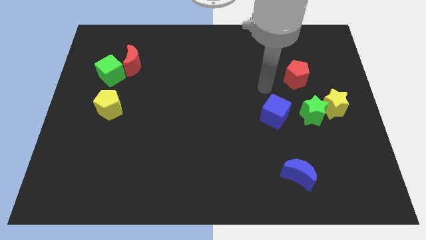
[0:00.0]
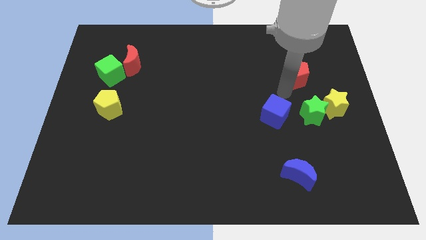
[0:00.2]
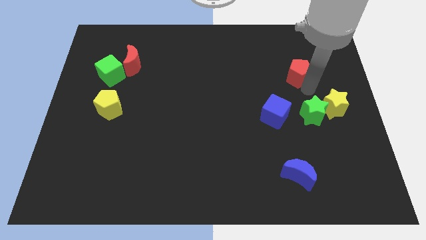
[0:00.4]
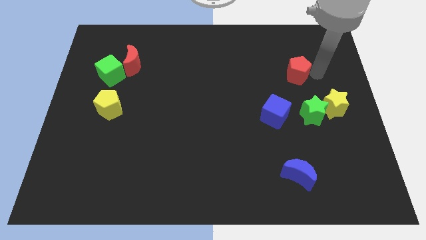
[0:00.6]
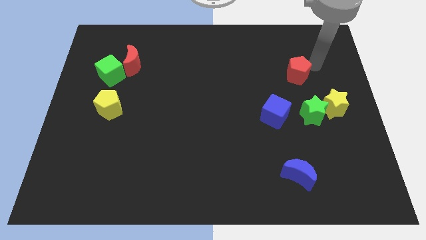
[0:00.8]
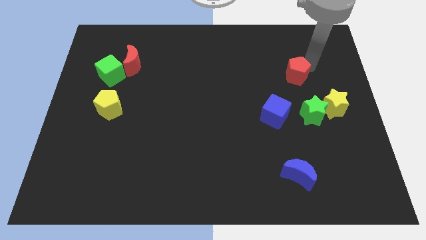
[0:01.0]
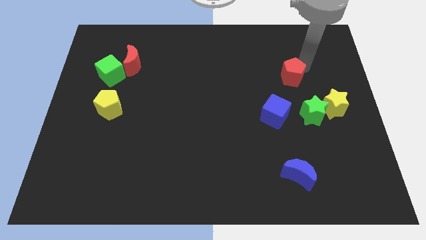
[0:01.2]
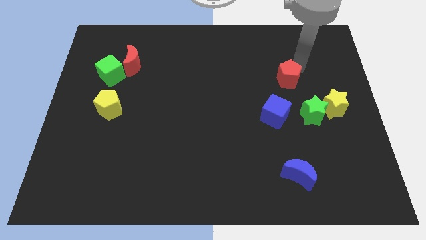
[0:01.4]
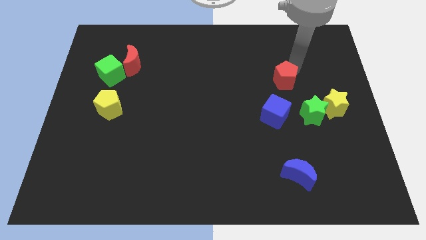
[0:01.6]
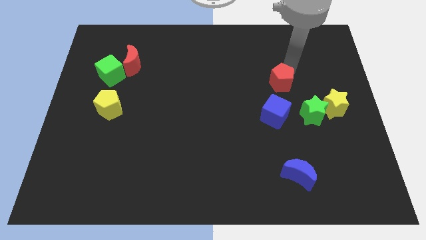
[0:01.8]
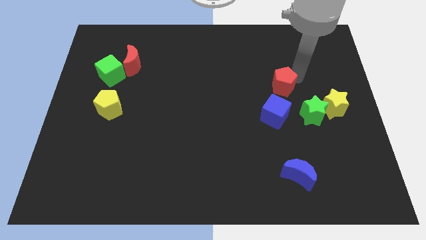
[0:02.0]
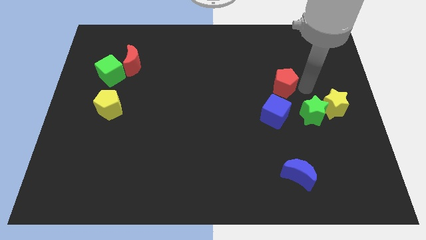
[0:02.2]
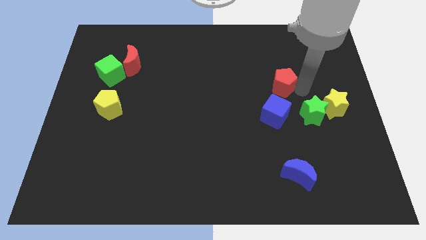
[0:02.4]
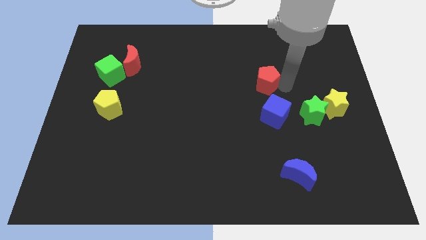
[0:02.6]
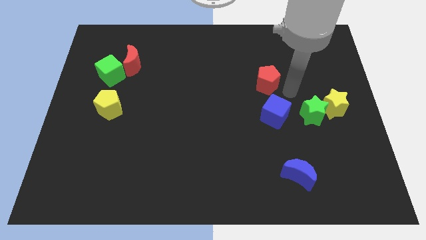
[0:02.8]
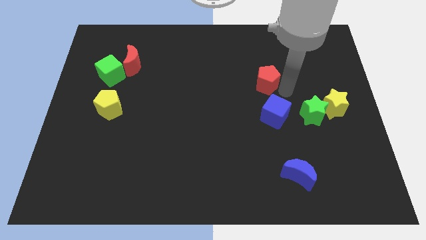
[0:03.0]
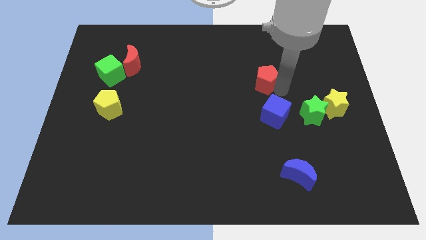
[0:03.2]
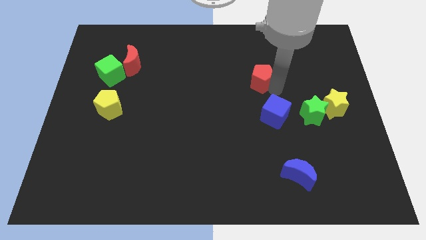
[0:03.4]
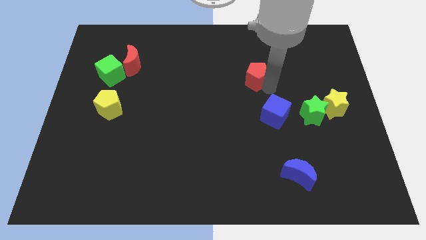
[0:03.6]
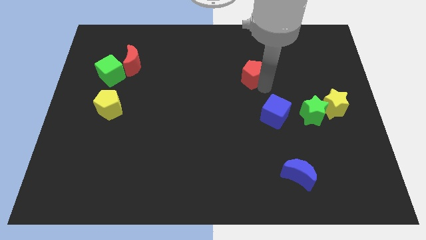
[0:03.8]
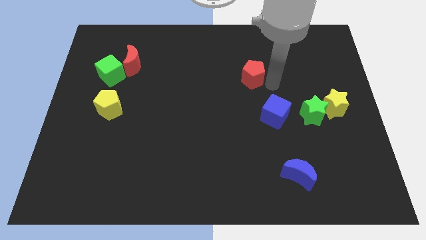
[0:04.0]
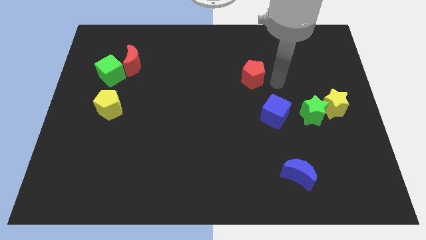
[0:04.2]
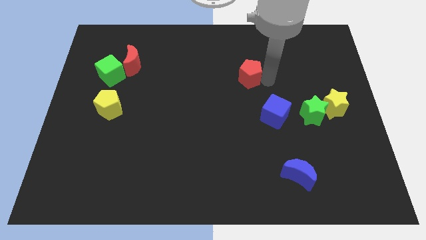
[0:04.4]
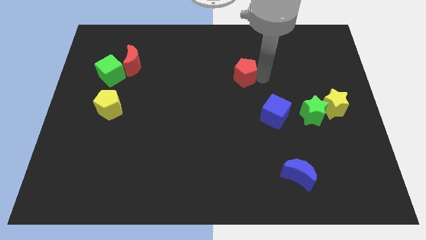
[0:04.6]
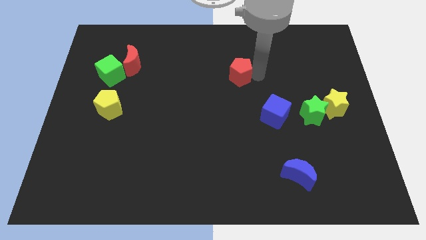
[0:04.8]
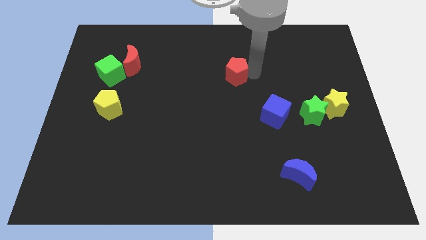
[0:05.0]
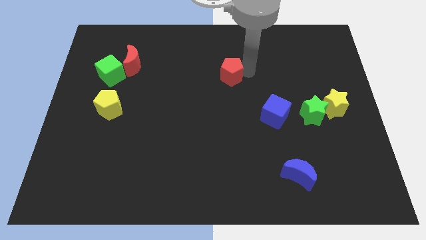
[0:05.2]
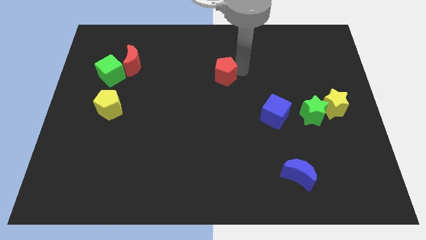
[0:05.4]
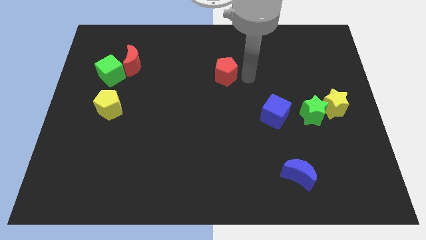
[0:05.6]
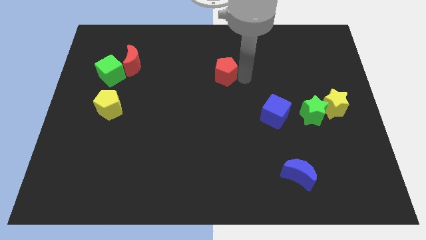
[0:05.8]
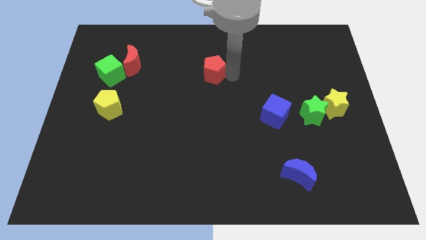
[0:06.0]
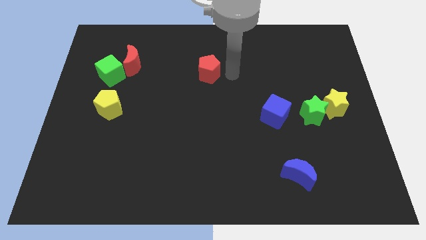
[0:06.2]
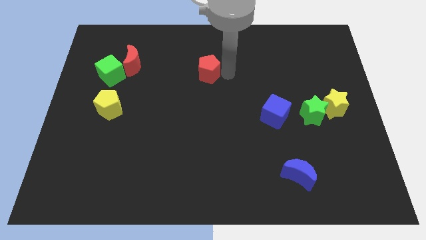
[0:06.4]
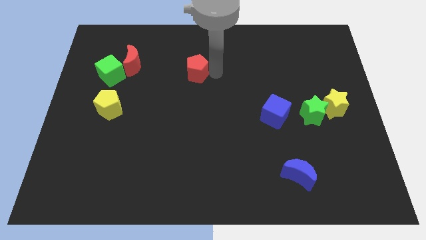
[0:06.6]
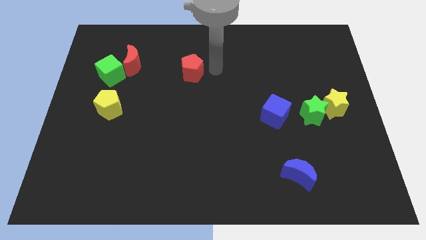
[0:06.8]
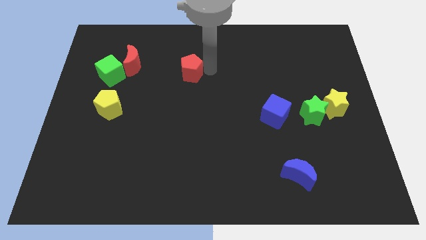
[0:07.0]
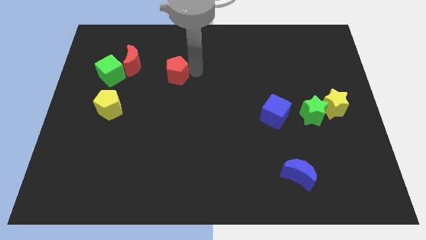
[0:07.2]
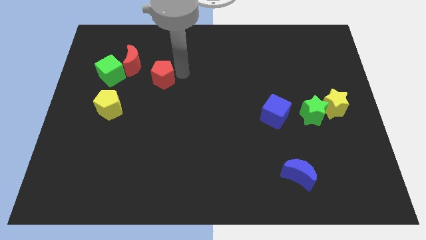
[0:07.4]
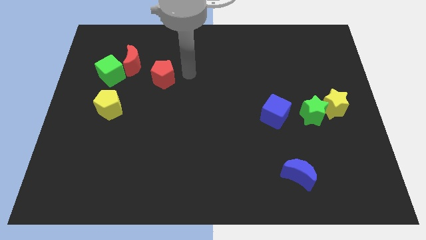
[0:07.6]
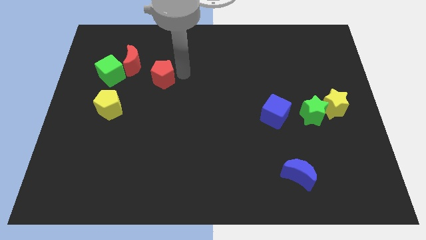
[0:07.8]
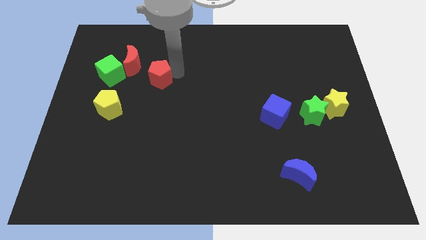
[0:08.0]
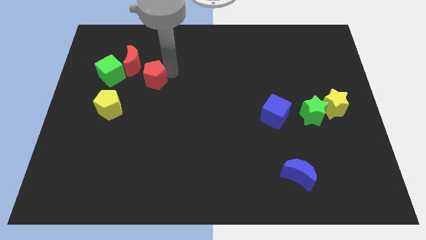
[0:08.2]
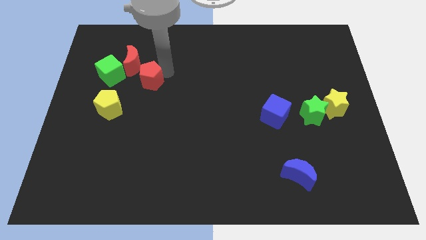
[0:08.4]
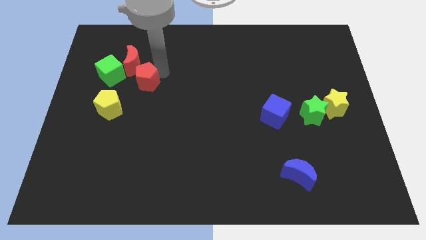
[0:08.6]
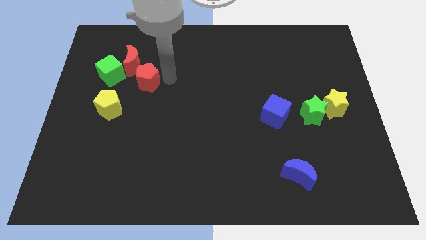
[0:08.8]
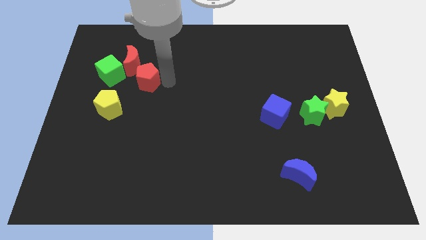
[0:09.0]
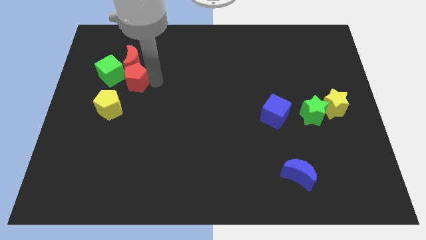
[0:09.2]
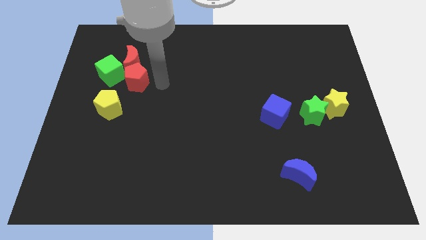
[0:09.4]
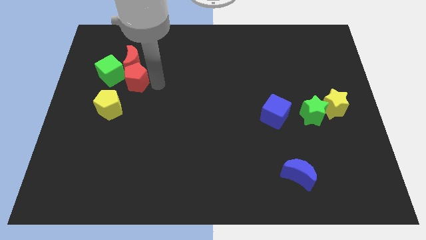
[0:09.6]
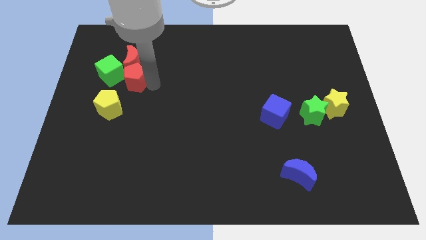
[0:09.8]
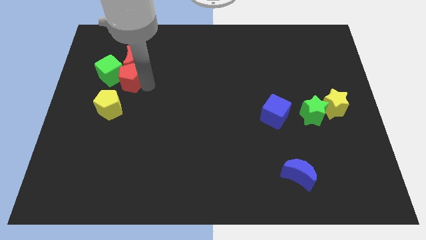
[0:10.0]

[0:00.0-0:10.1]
put the red pentagon to the green cube

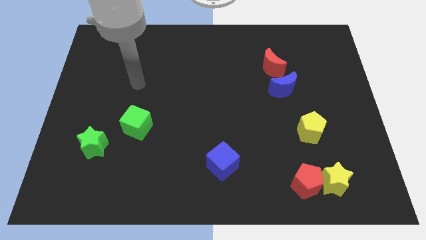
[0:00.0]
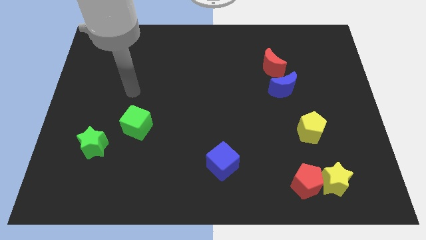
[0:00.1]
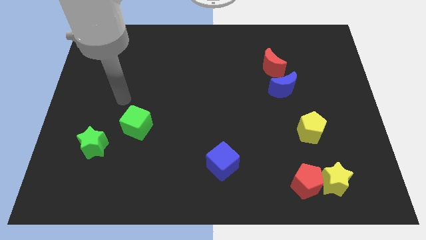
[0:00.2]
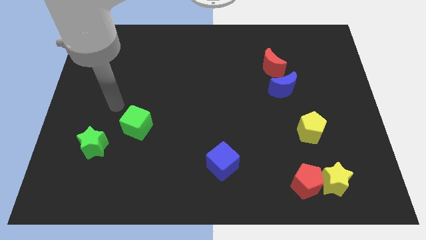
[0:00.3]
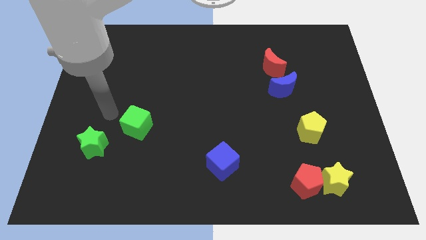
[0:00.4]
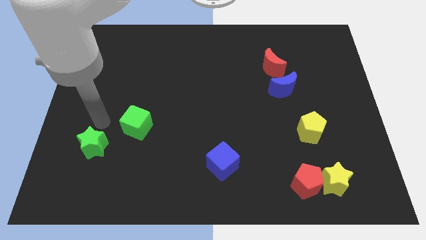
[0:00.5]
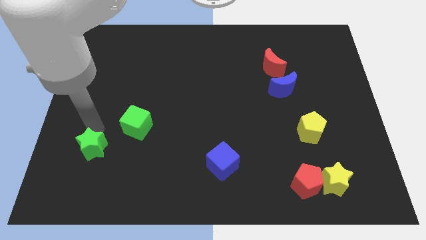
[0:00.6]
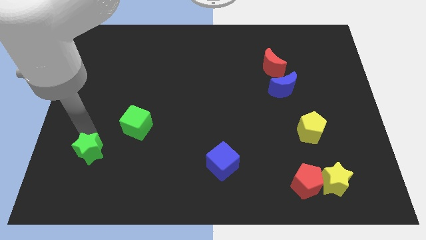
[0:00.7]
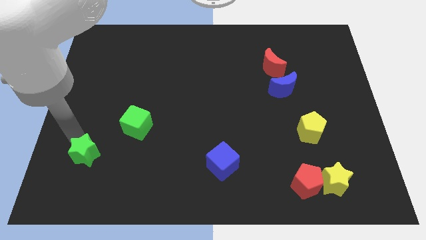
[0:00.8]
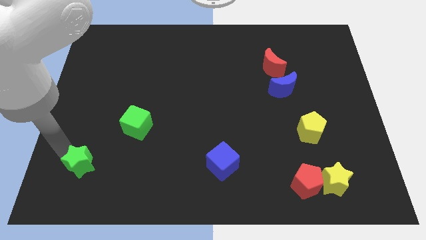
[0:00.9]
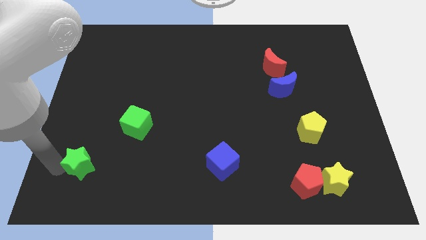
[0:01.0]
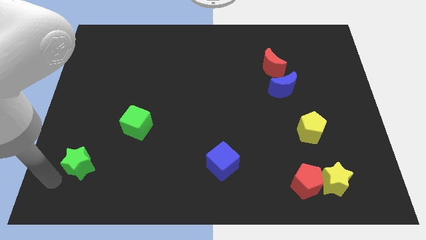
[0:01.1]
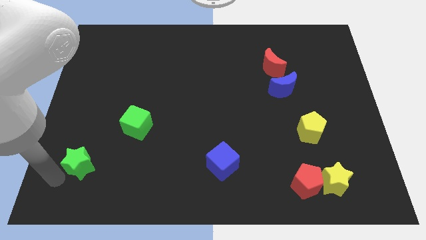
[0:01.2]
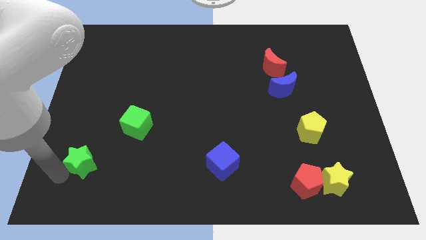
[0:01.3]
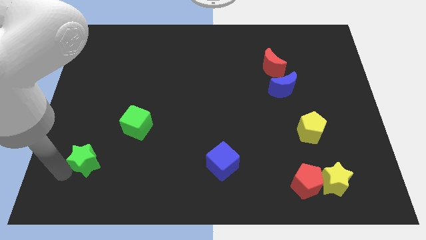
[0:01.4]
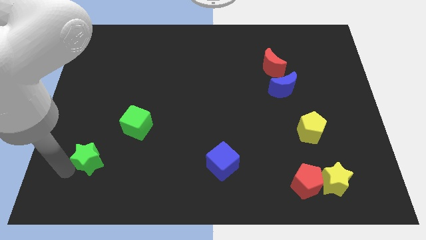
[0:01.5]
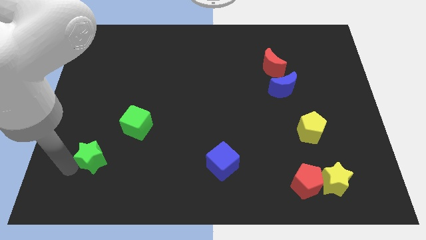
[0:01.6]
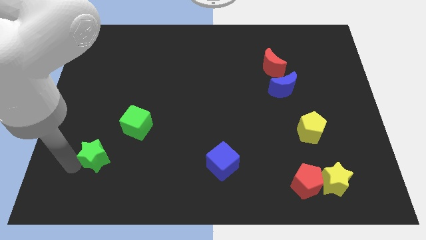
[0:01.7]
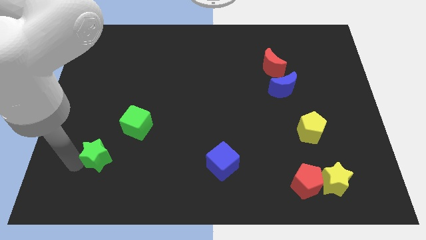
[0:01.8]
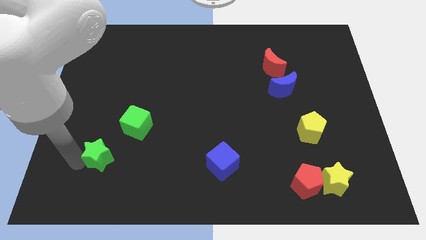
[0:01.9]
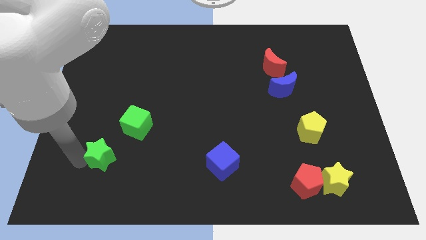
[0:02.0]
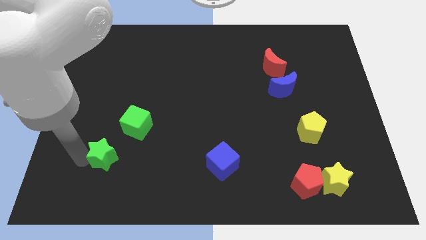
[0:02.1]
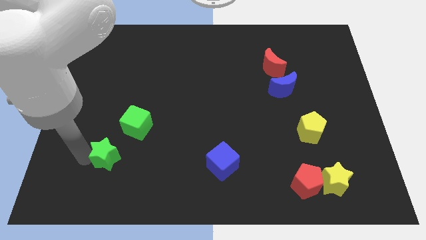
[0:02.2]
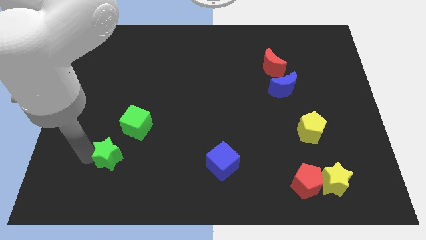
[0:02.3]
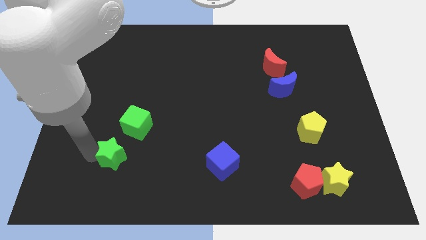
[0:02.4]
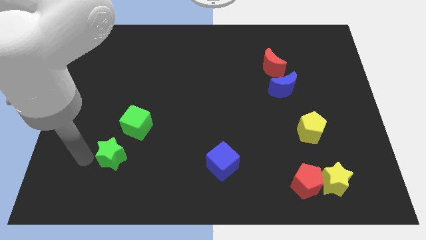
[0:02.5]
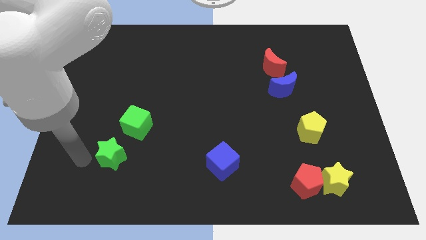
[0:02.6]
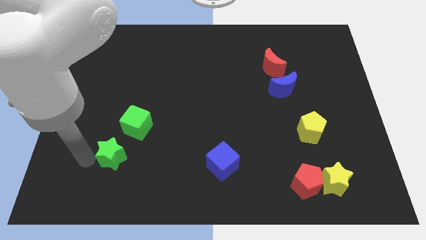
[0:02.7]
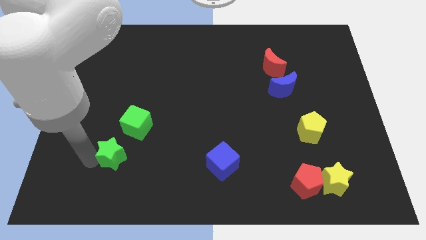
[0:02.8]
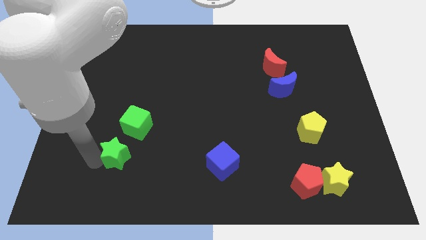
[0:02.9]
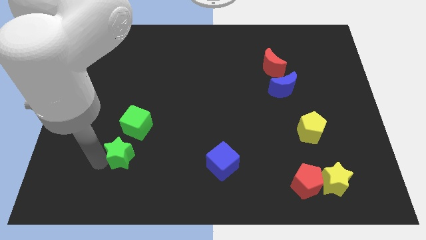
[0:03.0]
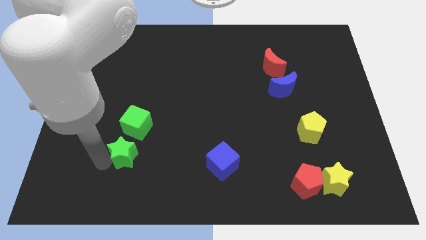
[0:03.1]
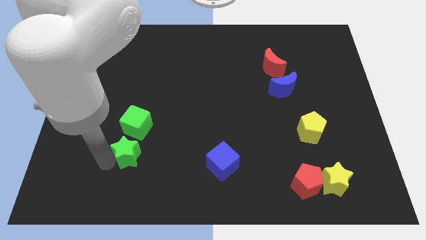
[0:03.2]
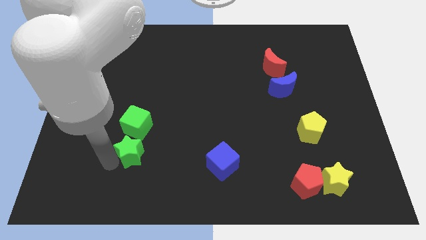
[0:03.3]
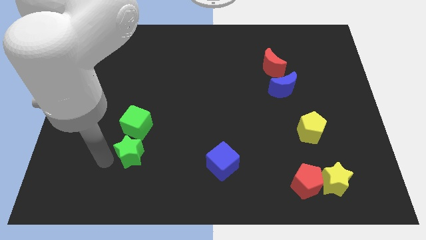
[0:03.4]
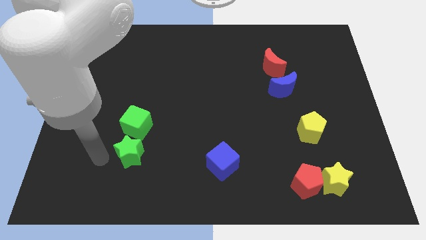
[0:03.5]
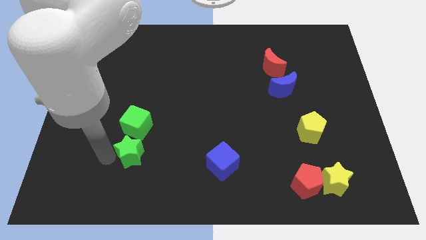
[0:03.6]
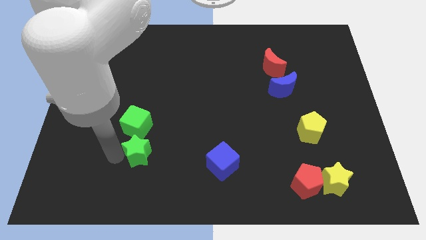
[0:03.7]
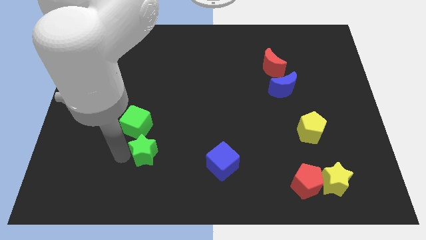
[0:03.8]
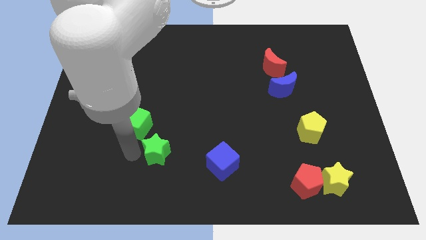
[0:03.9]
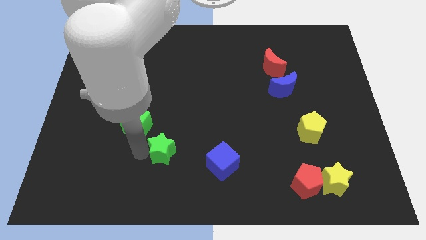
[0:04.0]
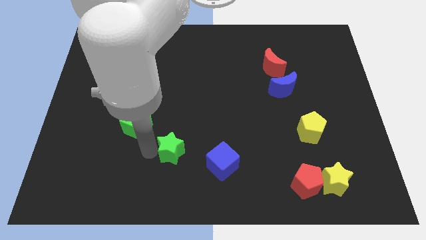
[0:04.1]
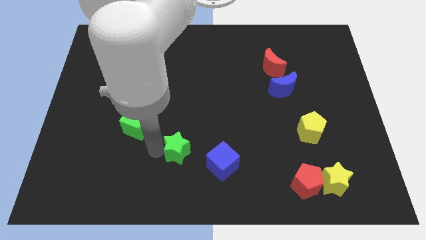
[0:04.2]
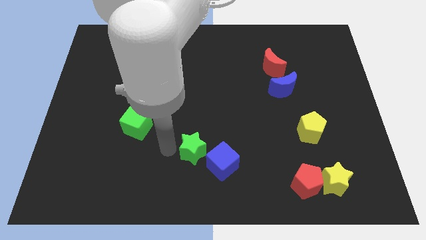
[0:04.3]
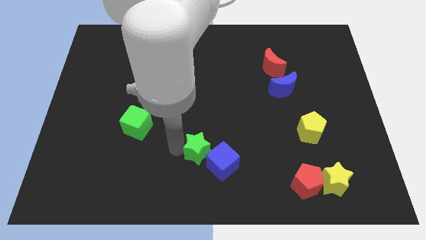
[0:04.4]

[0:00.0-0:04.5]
slide the green star next to the blue cube
